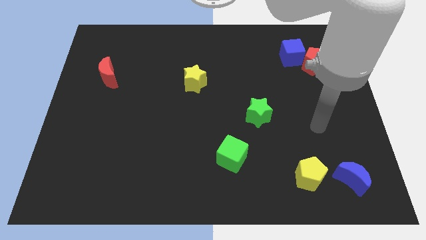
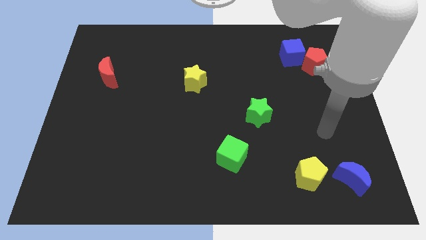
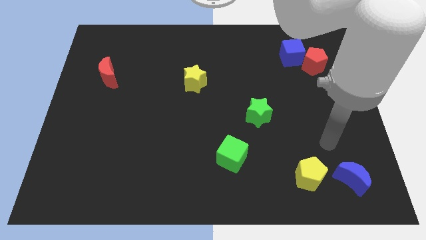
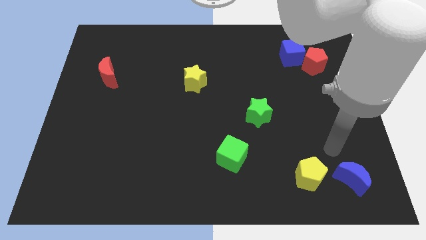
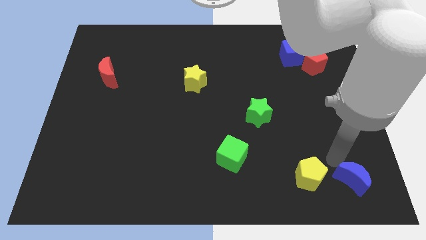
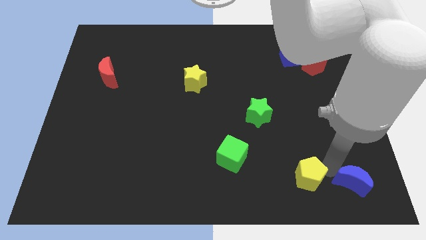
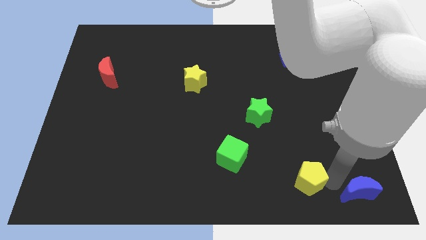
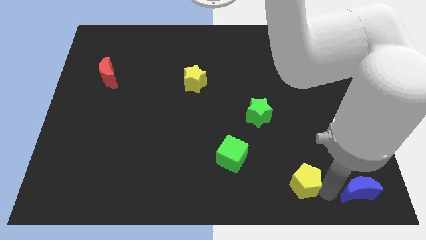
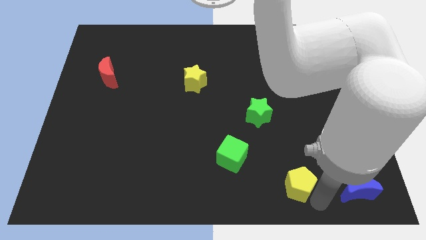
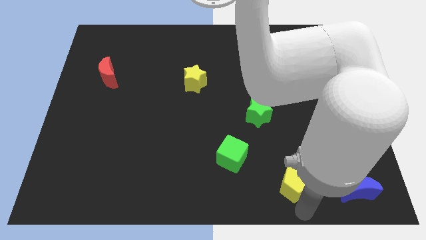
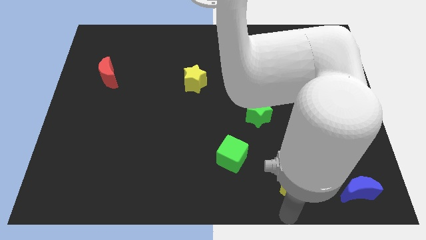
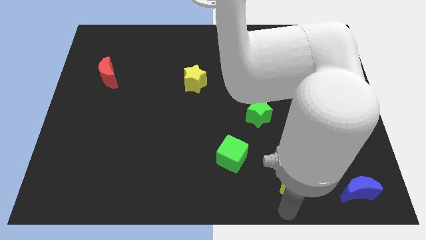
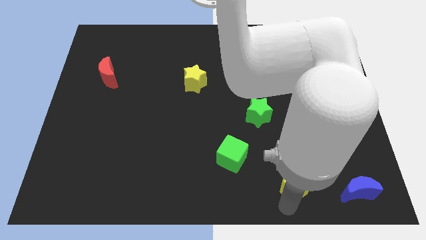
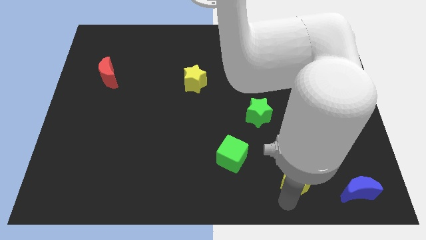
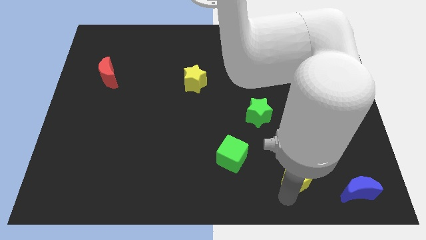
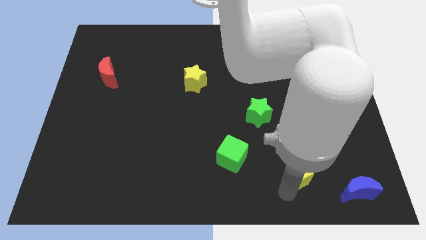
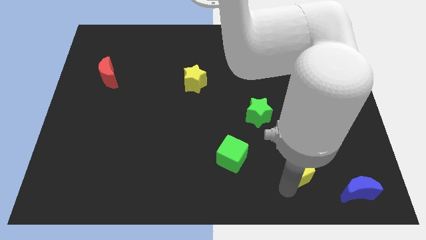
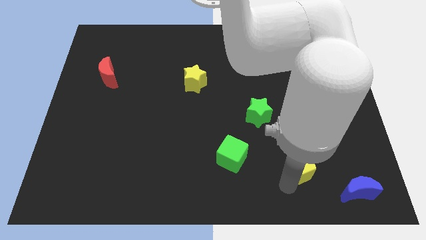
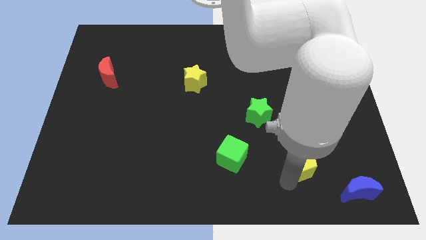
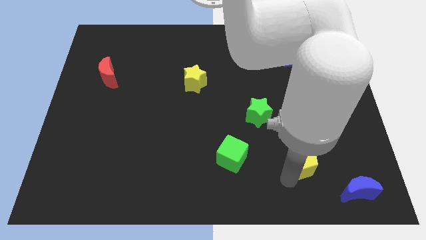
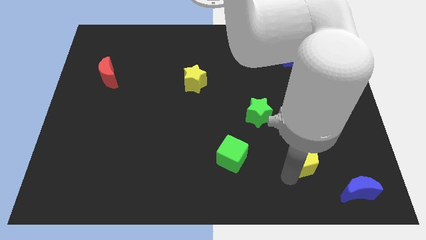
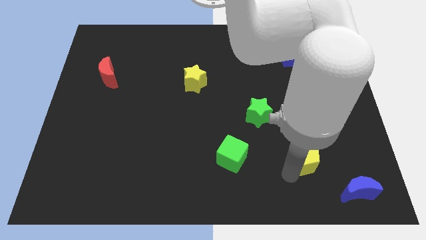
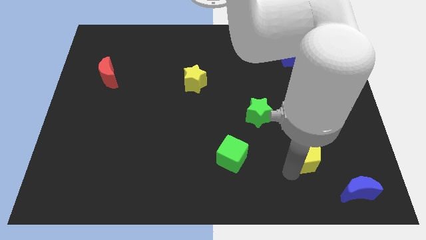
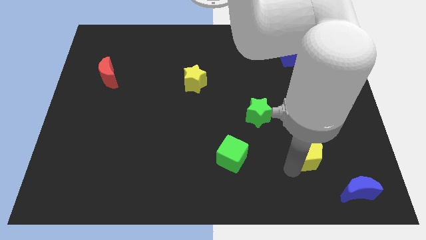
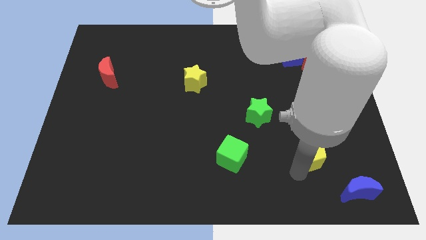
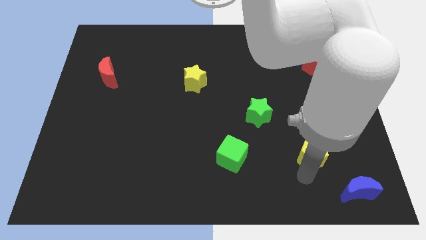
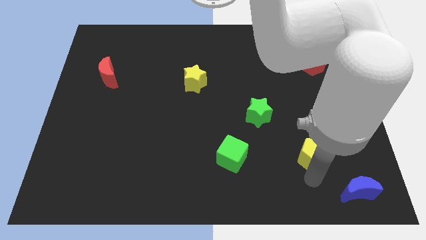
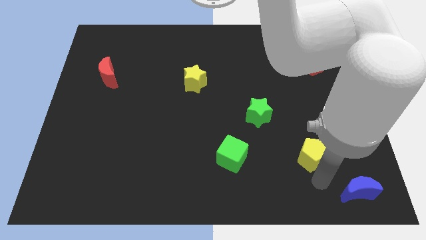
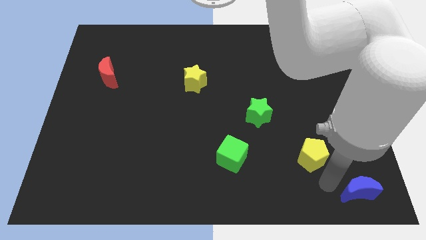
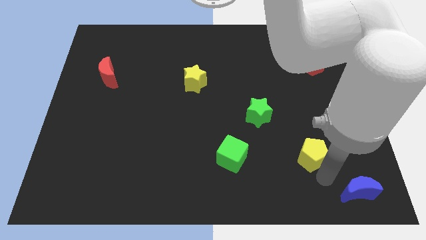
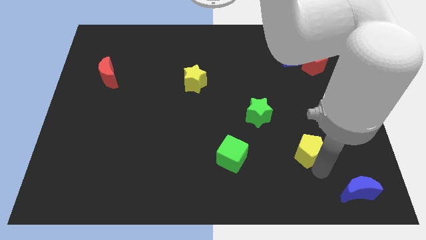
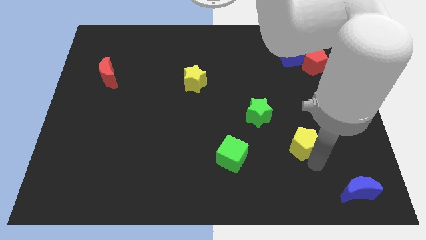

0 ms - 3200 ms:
slightly push the yellow pentagon upwards

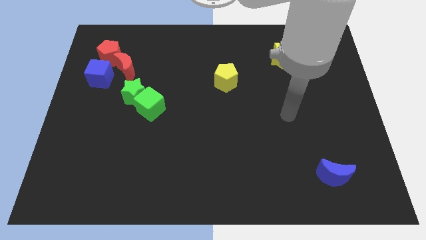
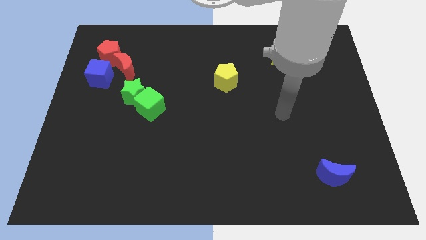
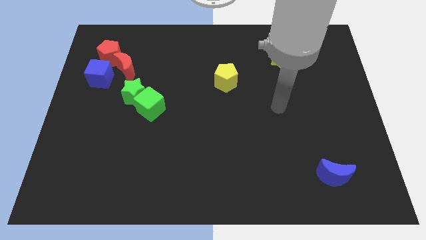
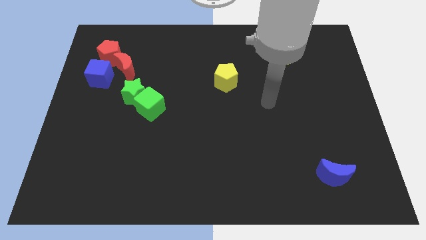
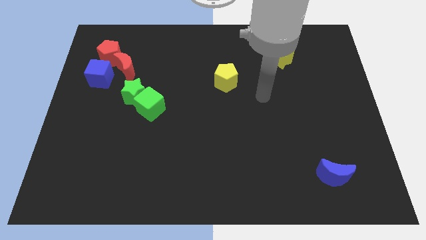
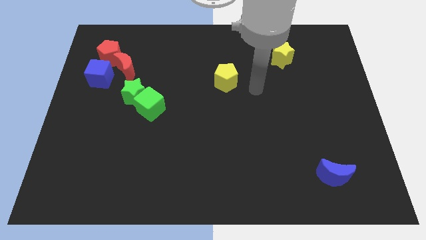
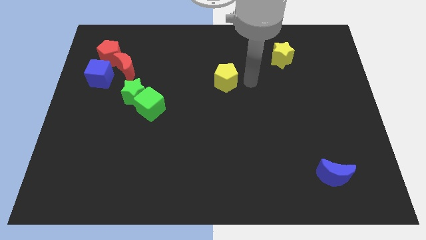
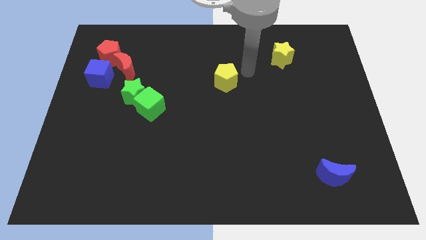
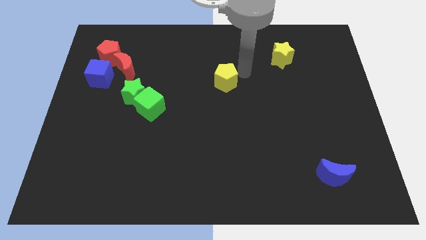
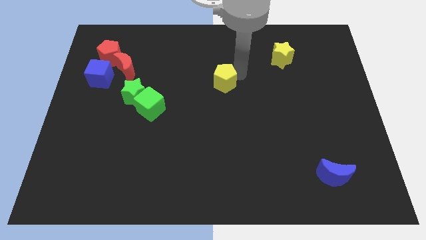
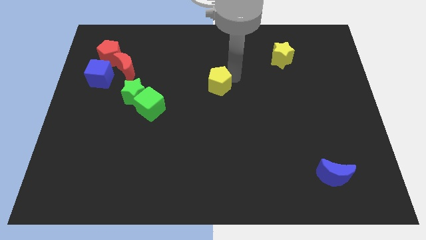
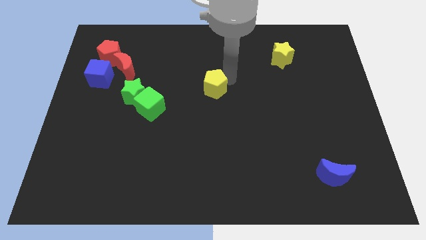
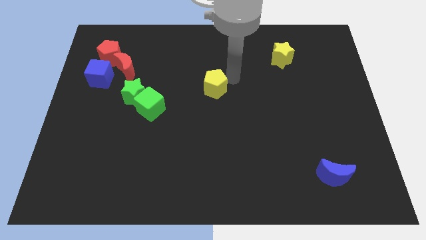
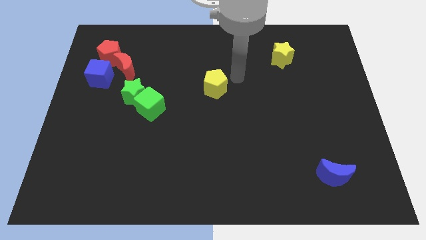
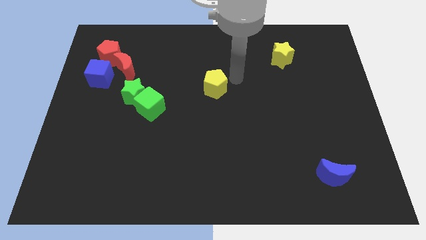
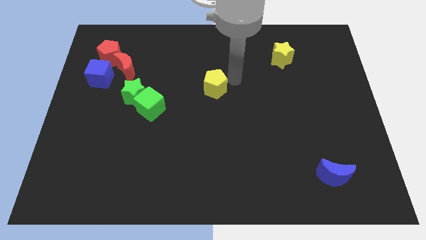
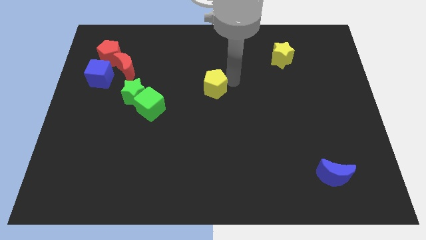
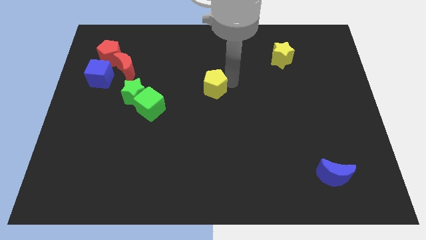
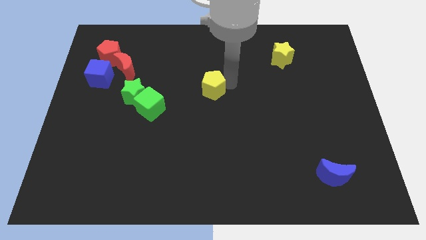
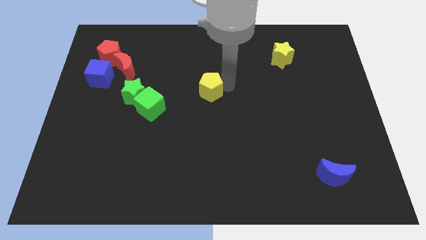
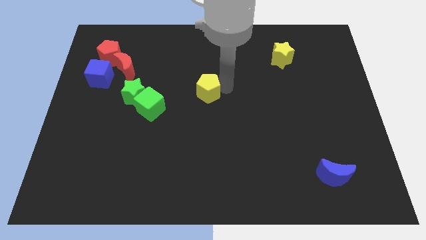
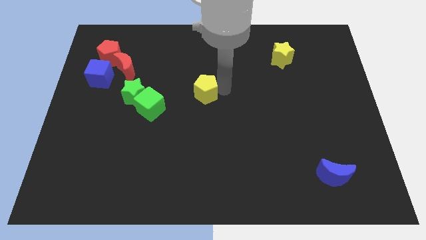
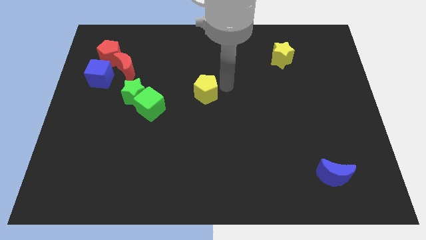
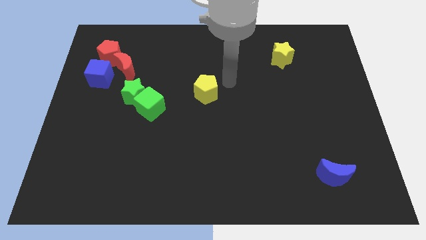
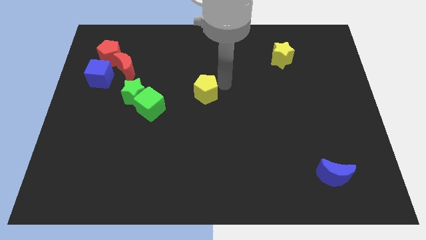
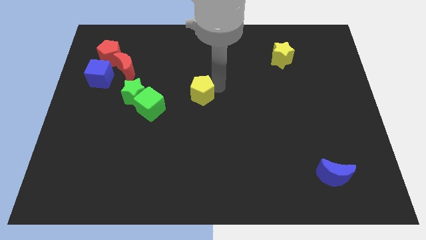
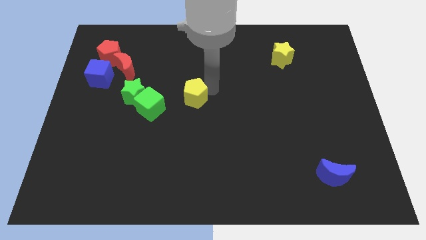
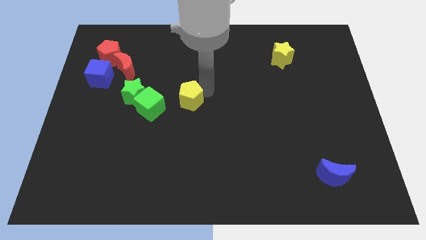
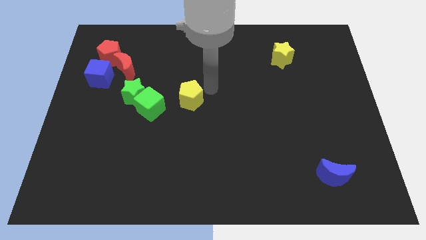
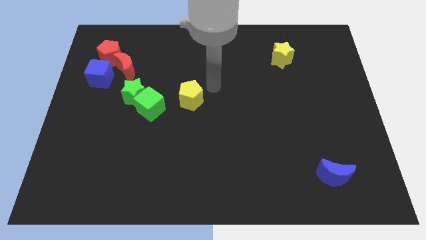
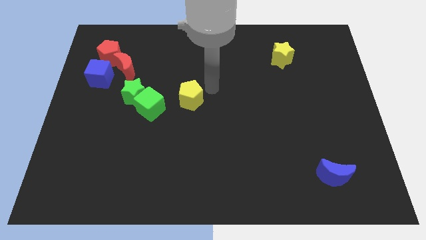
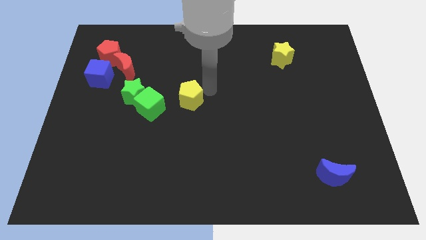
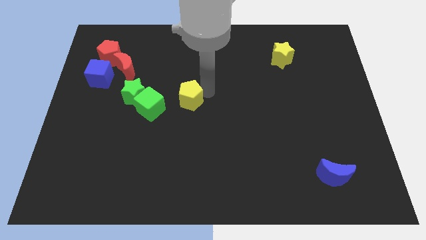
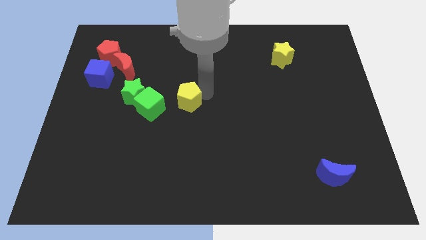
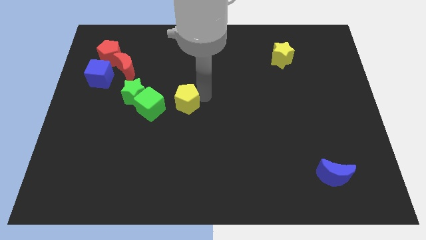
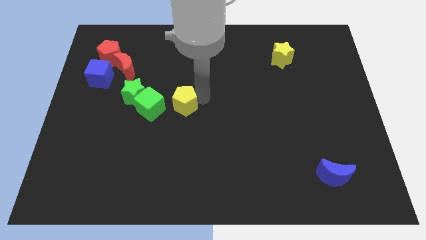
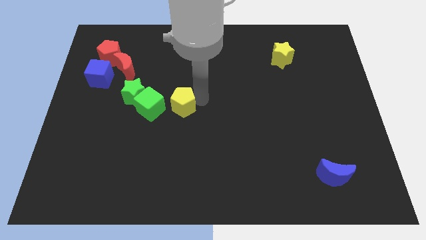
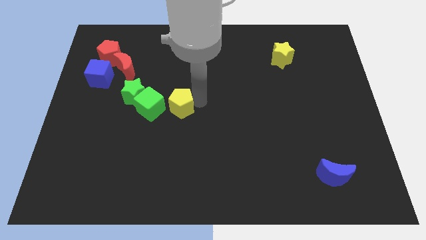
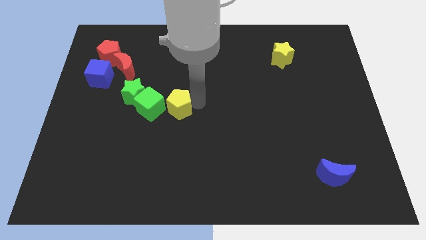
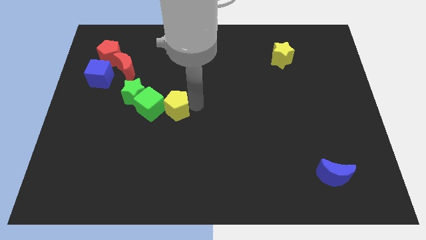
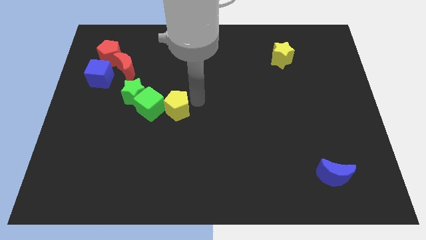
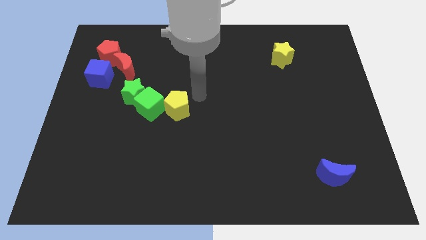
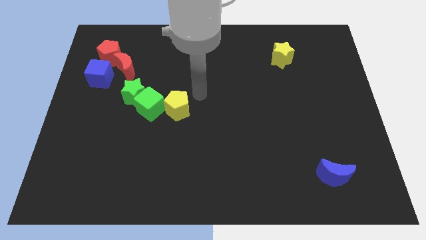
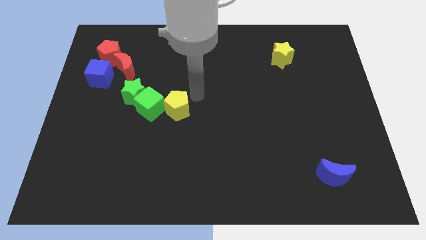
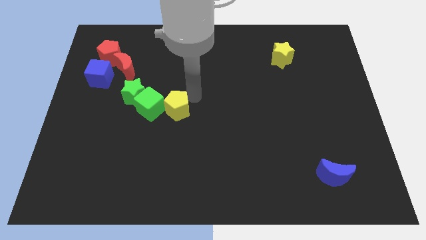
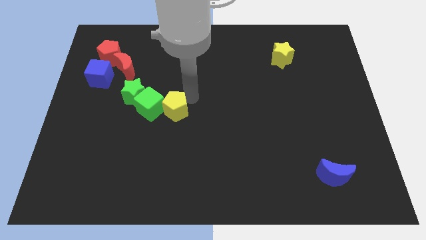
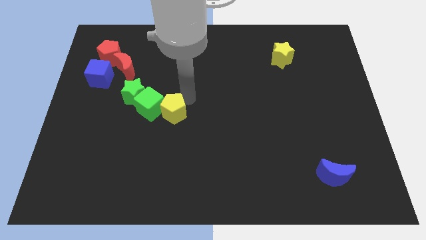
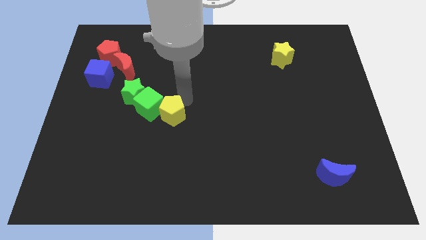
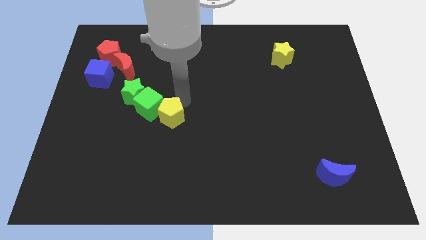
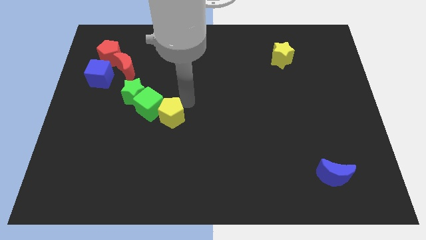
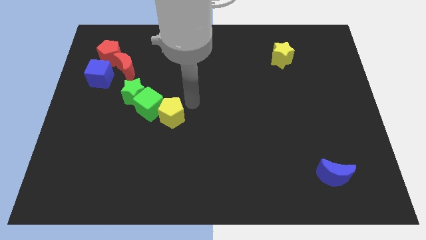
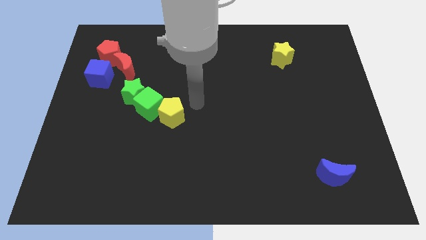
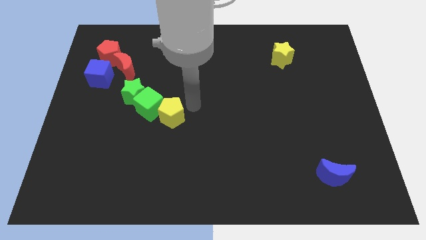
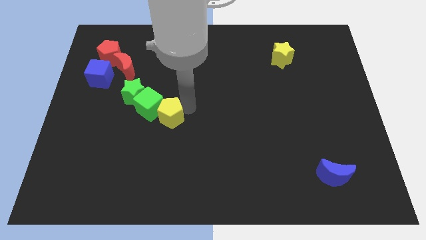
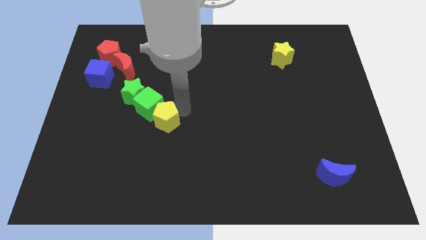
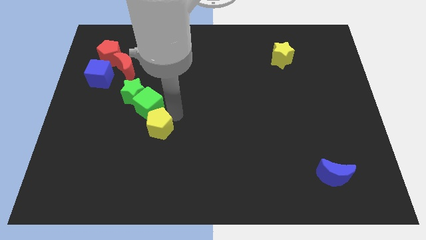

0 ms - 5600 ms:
slide the yellow pentagon down and left diagonally
